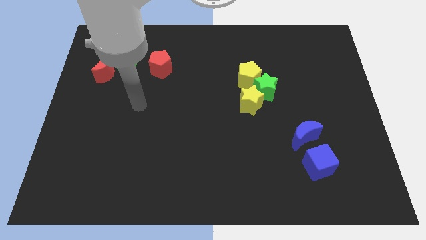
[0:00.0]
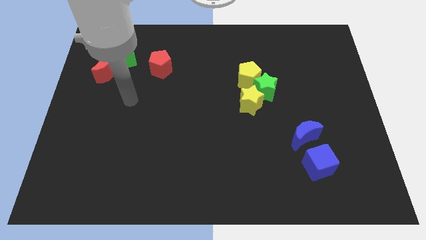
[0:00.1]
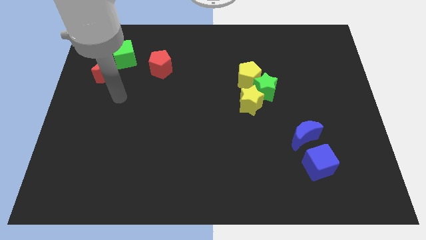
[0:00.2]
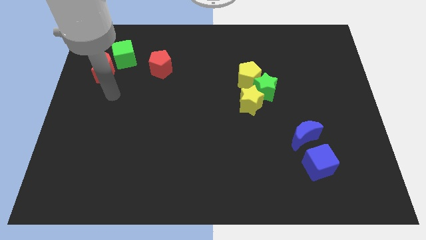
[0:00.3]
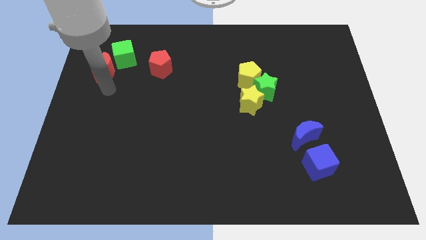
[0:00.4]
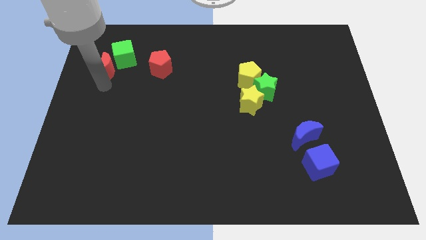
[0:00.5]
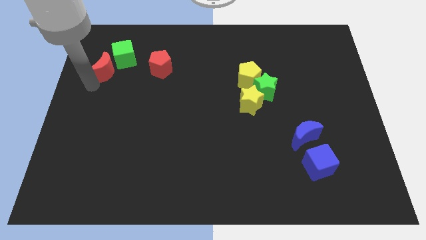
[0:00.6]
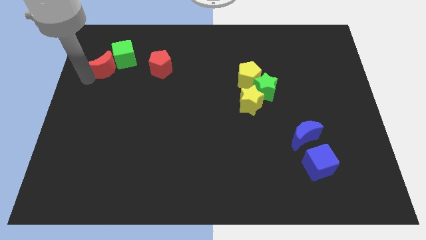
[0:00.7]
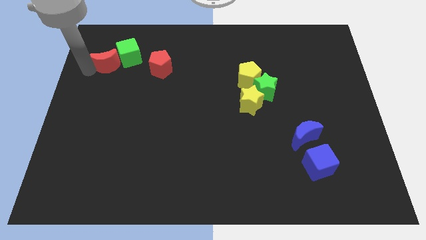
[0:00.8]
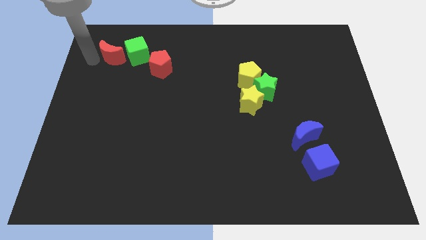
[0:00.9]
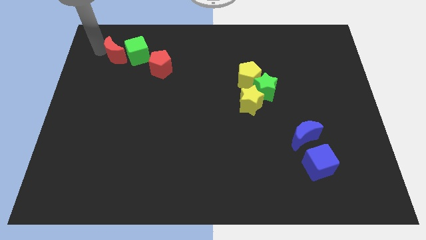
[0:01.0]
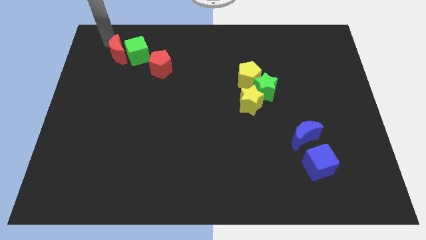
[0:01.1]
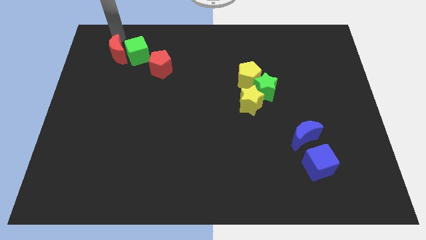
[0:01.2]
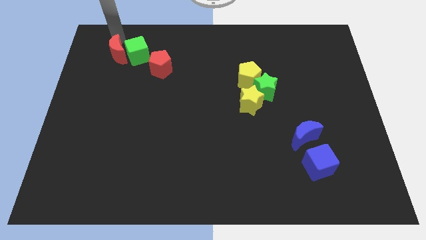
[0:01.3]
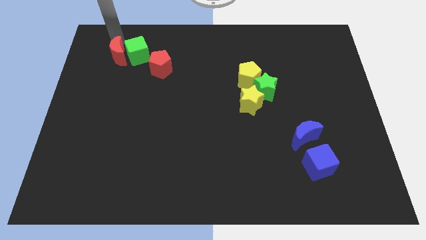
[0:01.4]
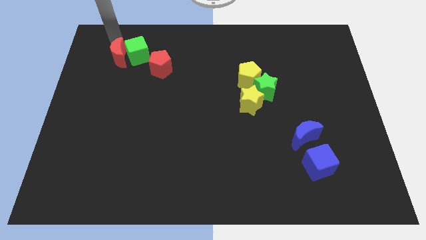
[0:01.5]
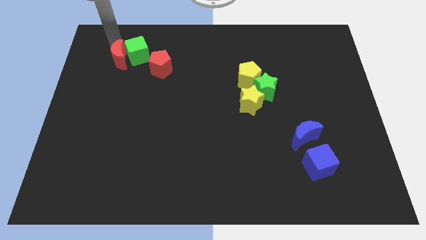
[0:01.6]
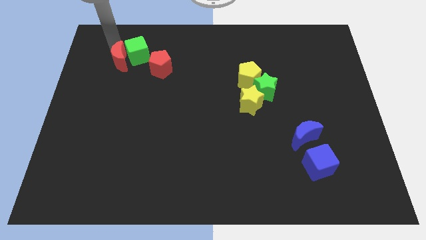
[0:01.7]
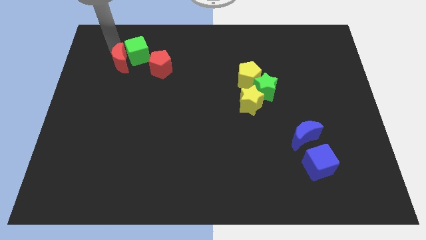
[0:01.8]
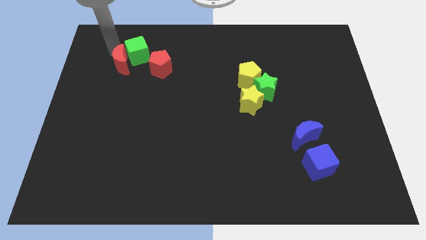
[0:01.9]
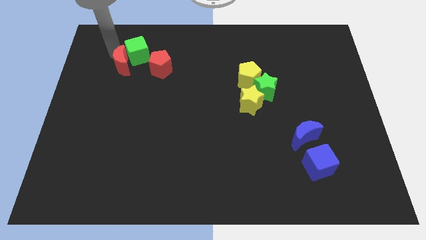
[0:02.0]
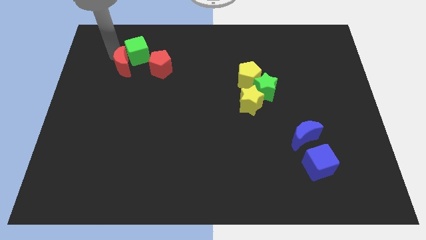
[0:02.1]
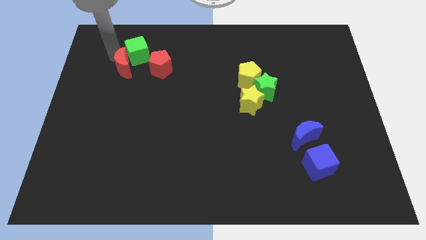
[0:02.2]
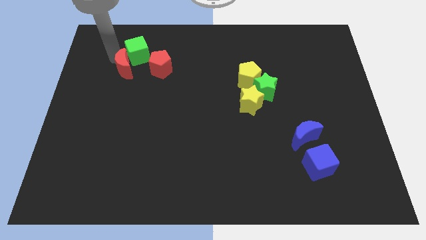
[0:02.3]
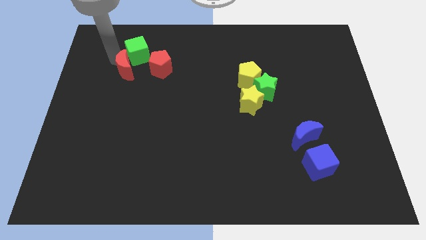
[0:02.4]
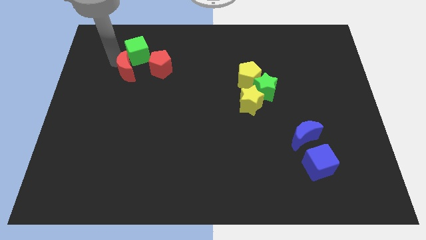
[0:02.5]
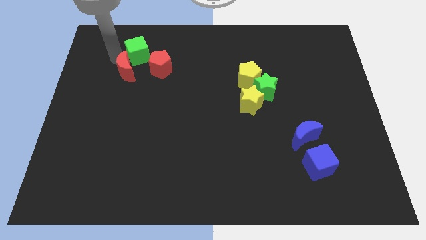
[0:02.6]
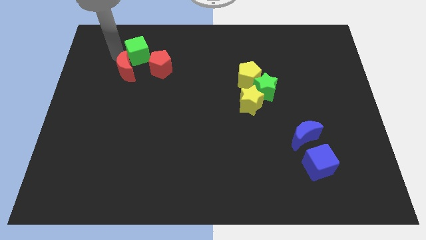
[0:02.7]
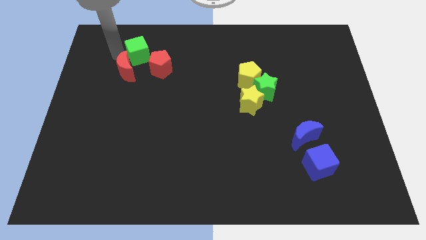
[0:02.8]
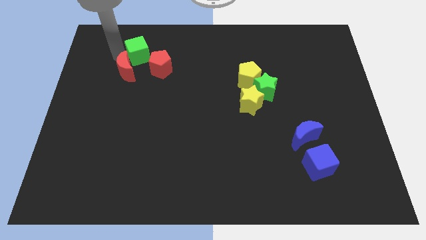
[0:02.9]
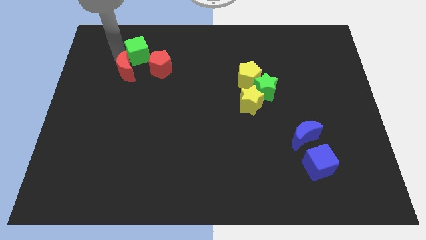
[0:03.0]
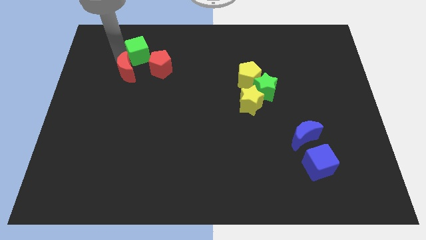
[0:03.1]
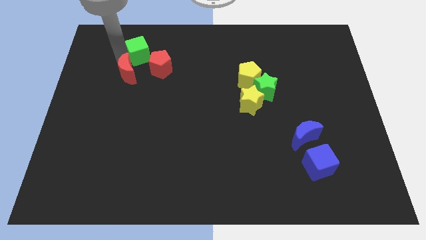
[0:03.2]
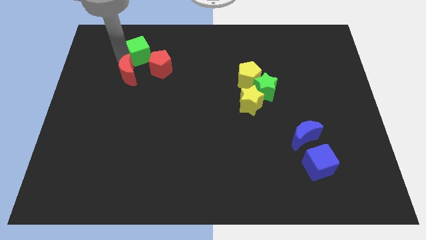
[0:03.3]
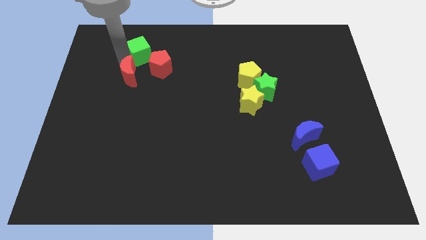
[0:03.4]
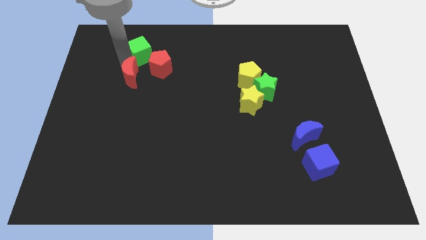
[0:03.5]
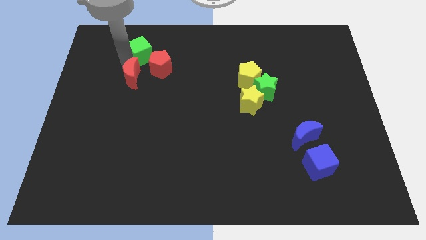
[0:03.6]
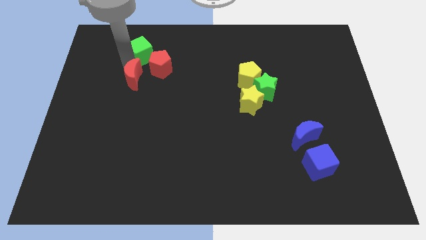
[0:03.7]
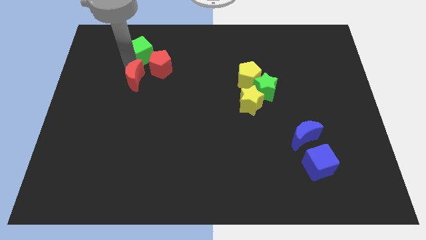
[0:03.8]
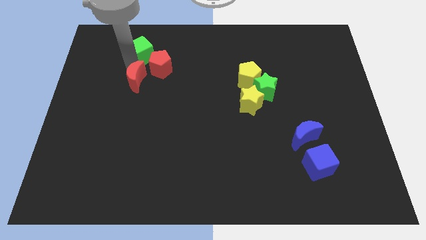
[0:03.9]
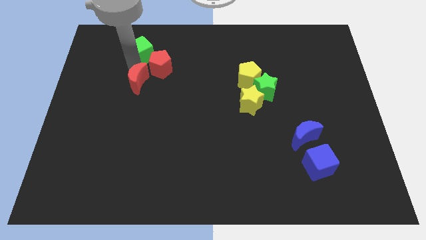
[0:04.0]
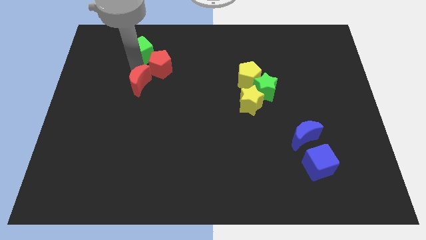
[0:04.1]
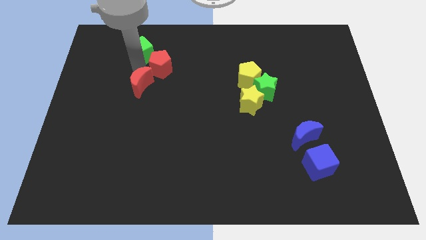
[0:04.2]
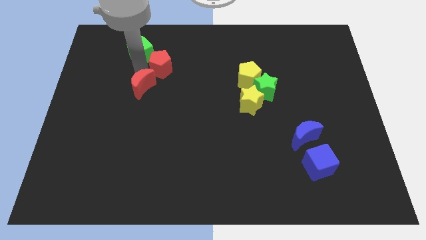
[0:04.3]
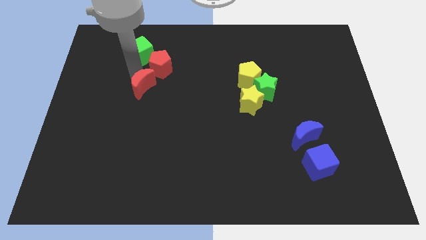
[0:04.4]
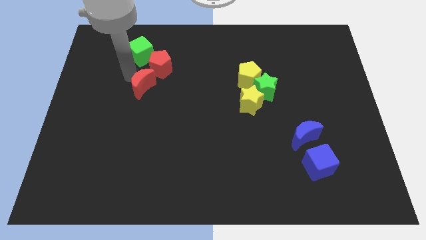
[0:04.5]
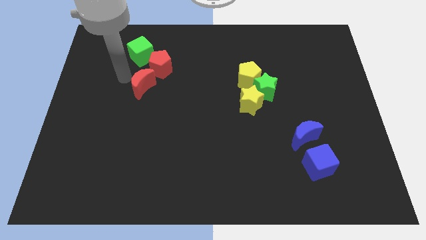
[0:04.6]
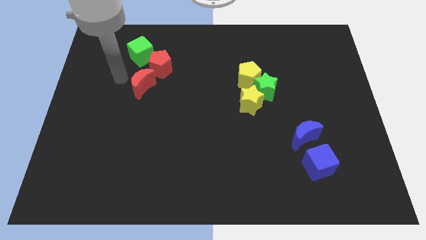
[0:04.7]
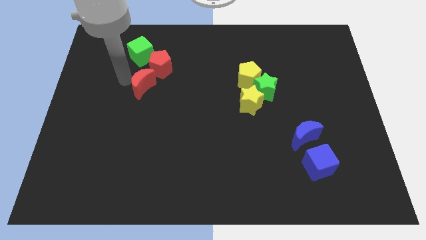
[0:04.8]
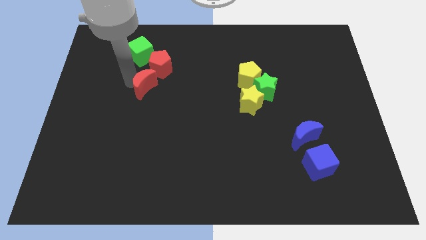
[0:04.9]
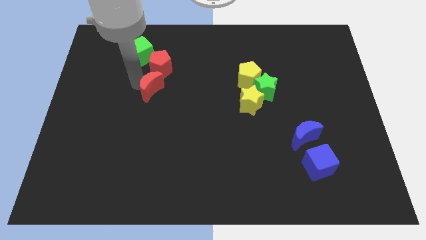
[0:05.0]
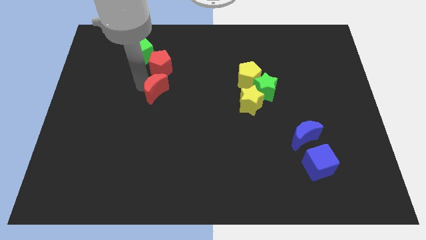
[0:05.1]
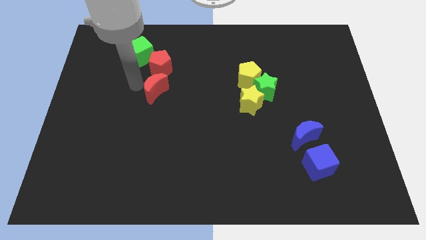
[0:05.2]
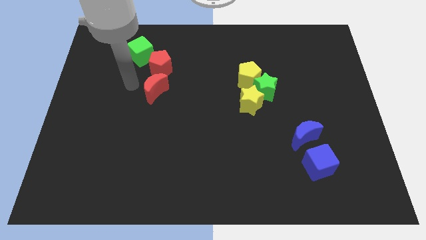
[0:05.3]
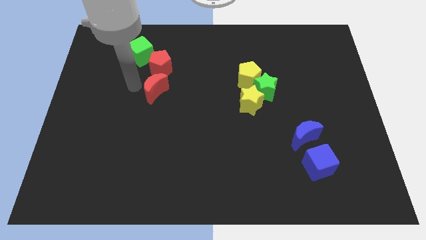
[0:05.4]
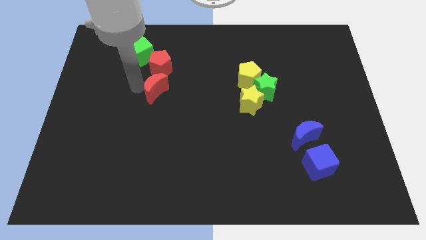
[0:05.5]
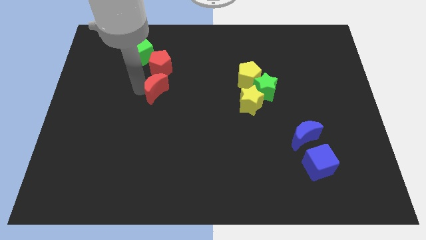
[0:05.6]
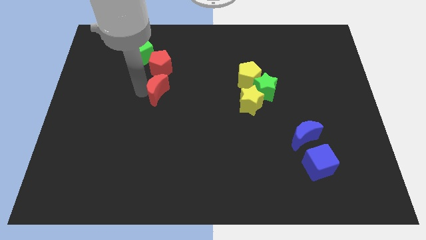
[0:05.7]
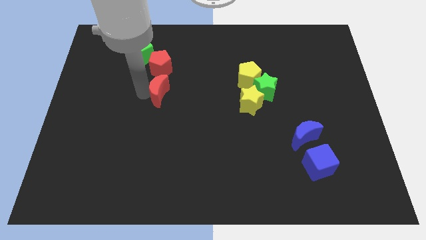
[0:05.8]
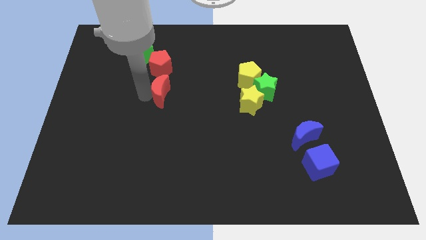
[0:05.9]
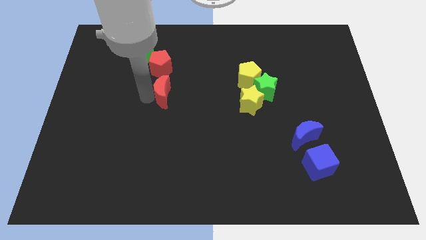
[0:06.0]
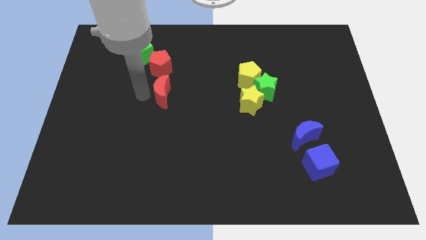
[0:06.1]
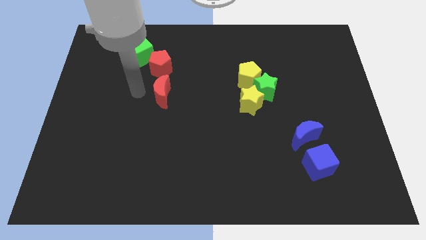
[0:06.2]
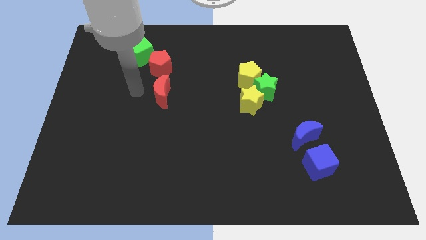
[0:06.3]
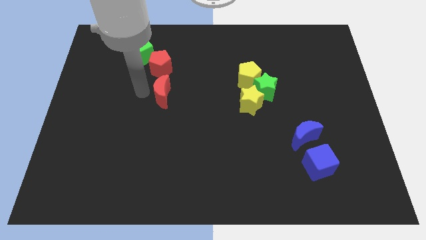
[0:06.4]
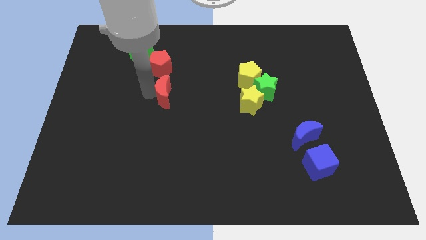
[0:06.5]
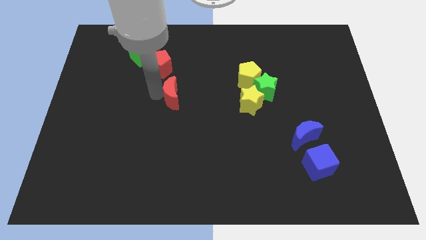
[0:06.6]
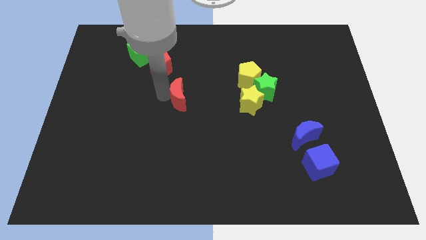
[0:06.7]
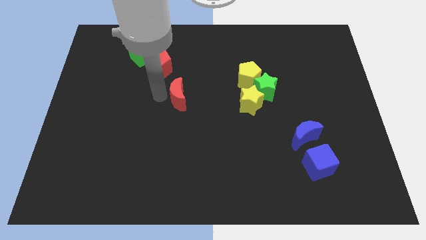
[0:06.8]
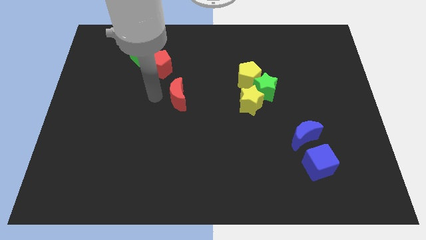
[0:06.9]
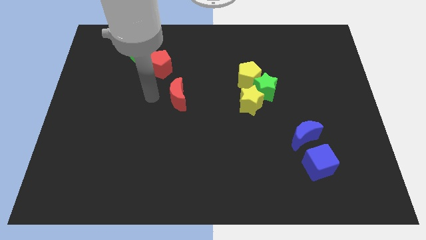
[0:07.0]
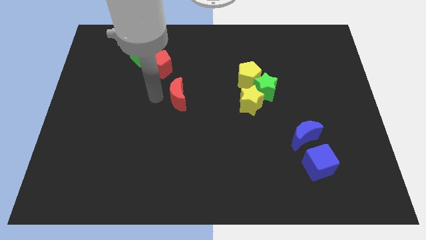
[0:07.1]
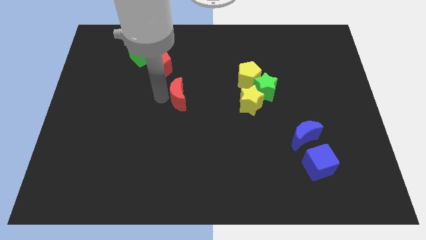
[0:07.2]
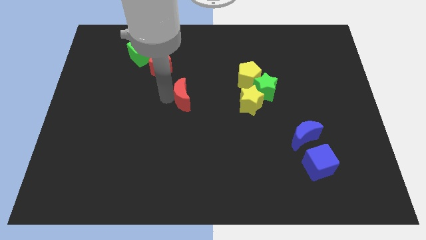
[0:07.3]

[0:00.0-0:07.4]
put the red moon to the left of the yellow star

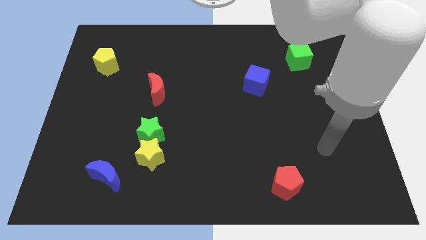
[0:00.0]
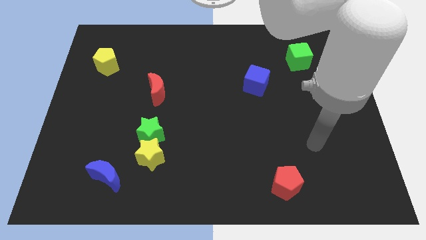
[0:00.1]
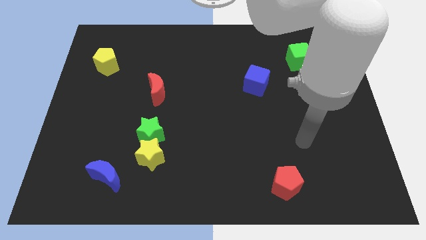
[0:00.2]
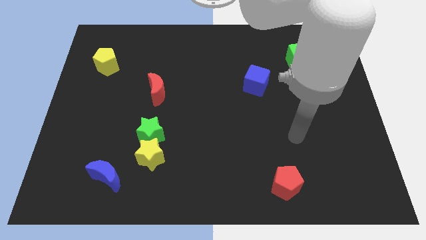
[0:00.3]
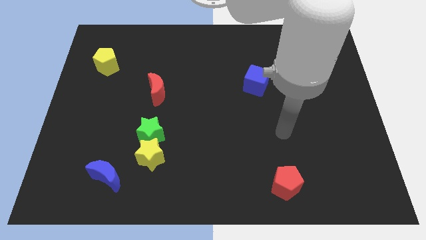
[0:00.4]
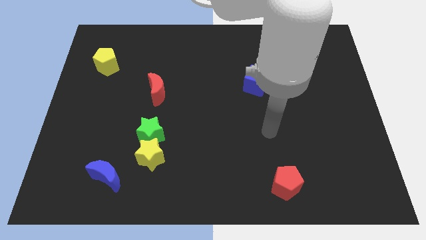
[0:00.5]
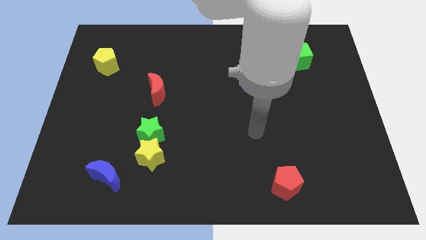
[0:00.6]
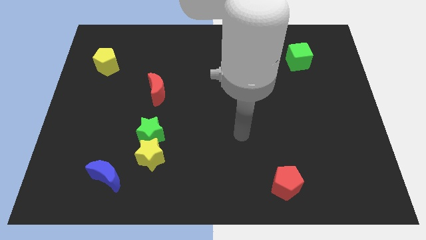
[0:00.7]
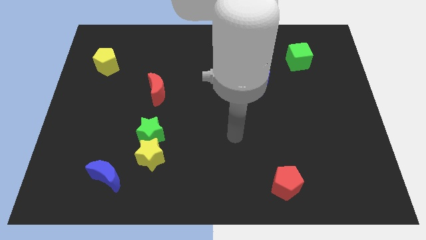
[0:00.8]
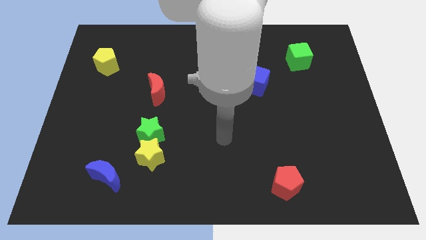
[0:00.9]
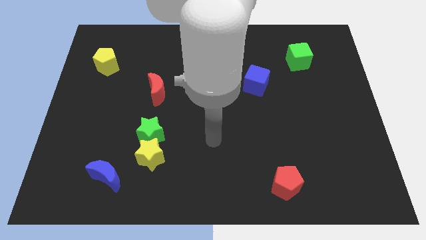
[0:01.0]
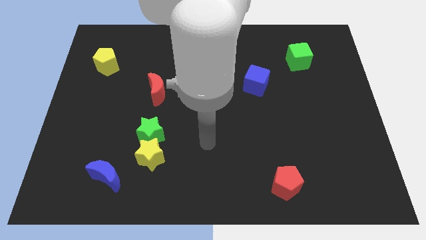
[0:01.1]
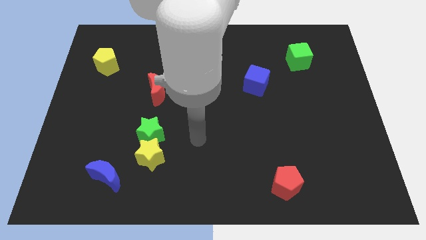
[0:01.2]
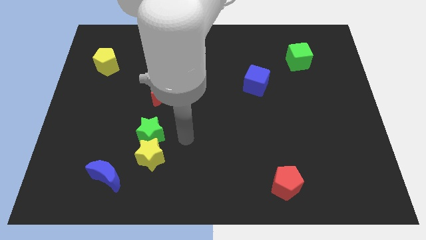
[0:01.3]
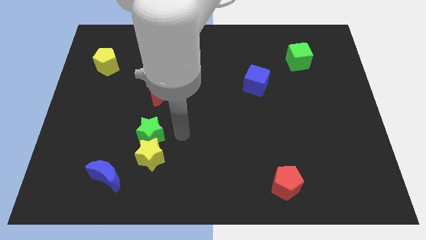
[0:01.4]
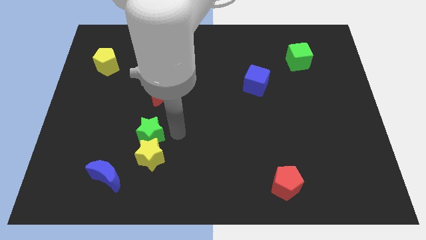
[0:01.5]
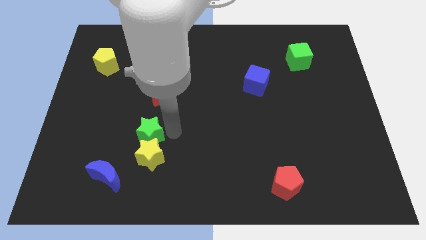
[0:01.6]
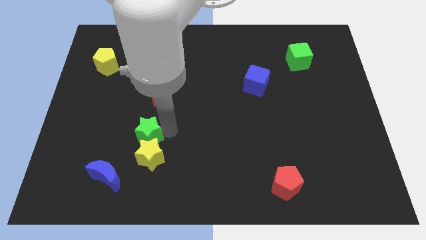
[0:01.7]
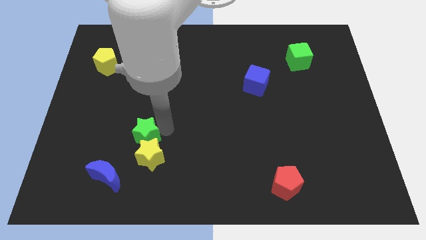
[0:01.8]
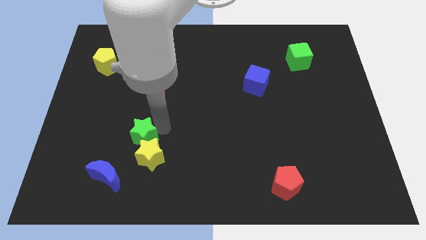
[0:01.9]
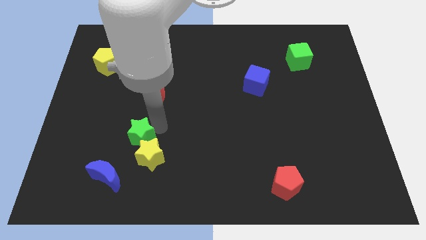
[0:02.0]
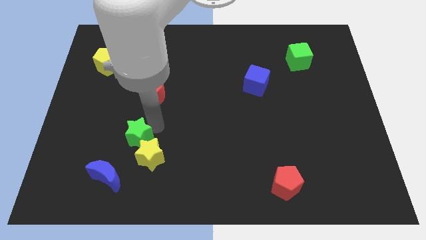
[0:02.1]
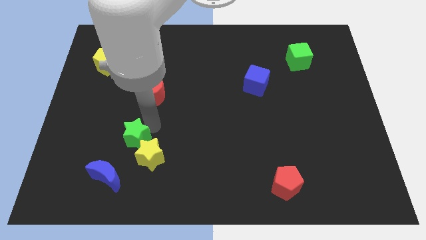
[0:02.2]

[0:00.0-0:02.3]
put the green star above the blue moon
